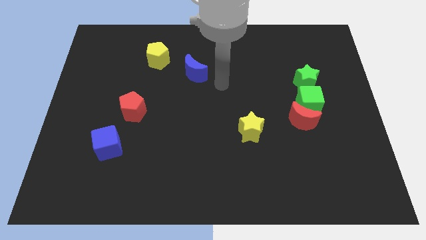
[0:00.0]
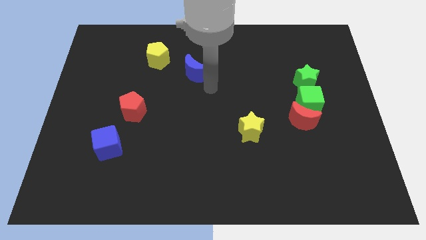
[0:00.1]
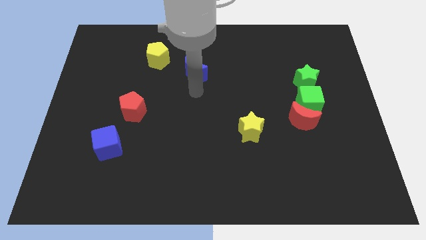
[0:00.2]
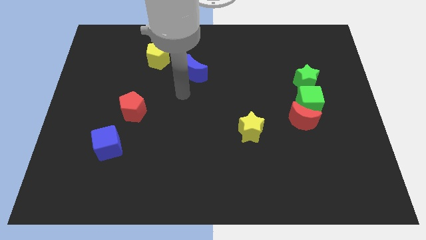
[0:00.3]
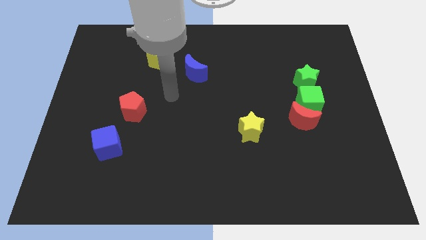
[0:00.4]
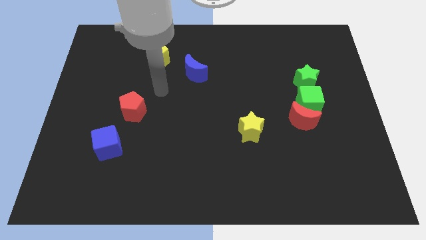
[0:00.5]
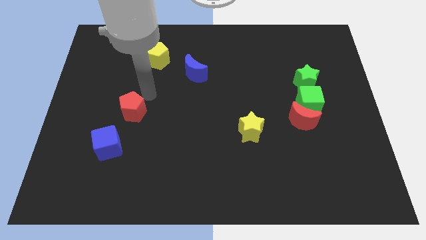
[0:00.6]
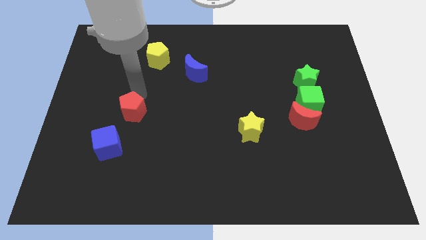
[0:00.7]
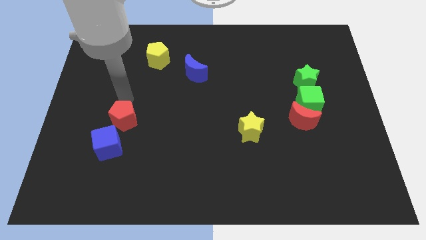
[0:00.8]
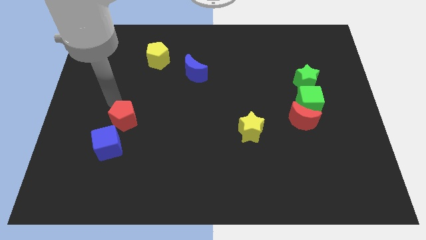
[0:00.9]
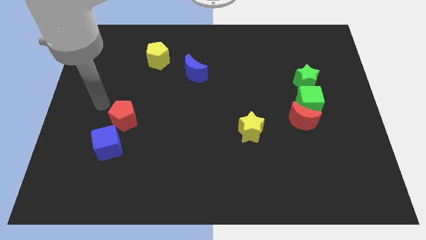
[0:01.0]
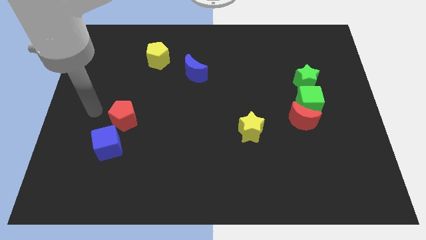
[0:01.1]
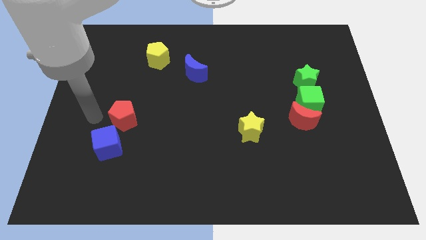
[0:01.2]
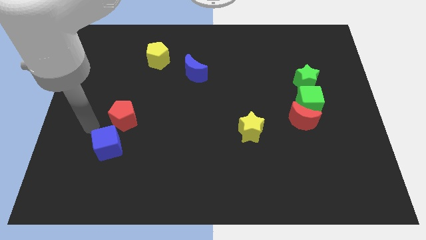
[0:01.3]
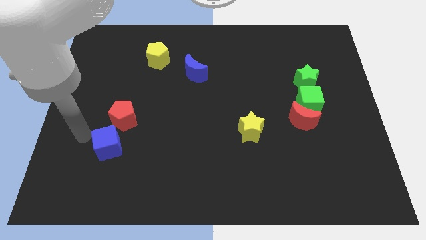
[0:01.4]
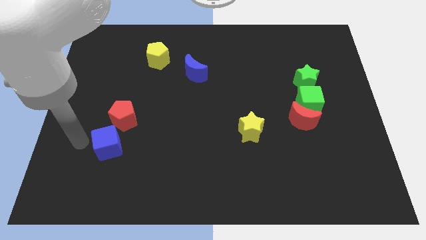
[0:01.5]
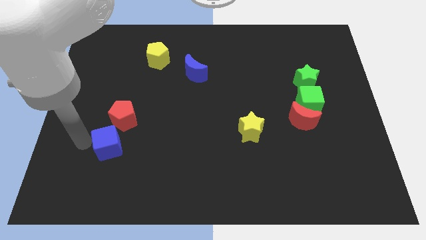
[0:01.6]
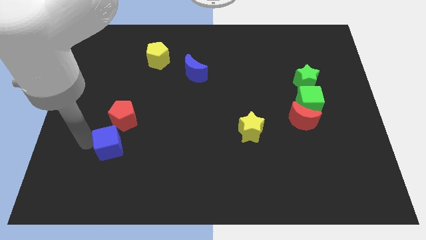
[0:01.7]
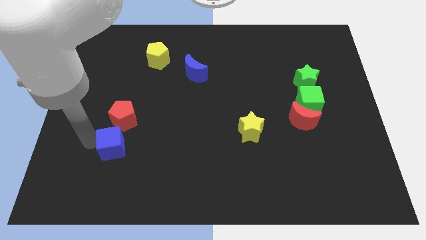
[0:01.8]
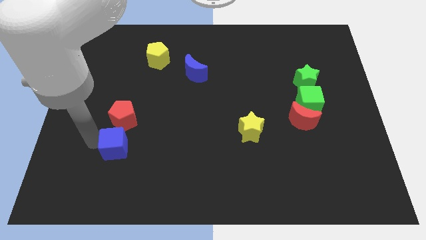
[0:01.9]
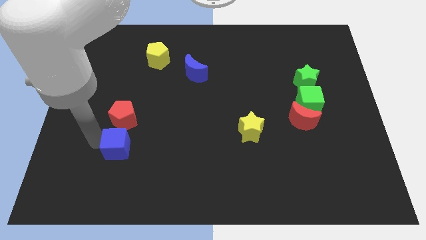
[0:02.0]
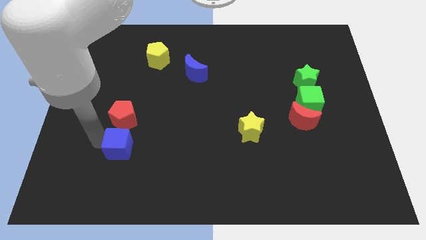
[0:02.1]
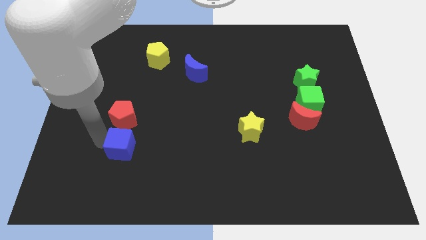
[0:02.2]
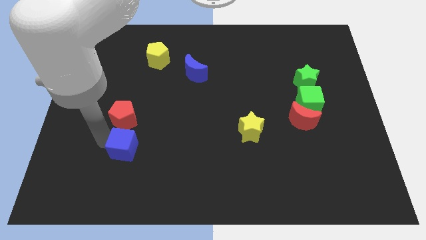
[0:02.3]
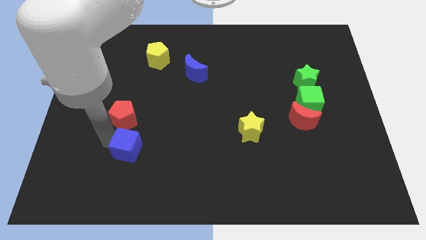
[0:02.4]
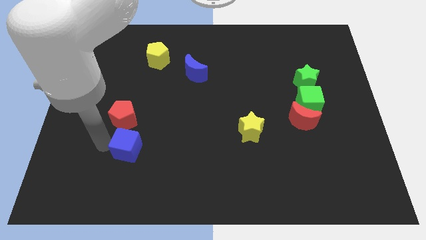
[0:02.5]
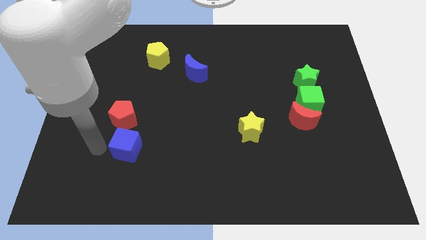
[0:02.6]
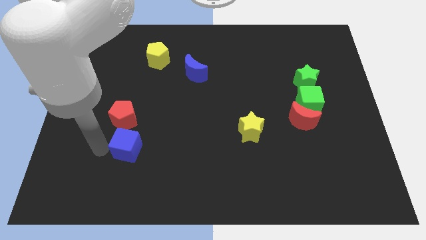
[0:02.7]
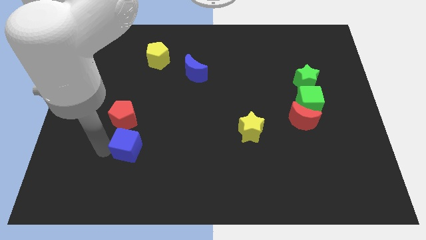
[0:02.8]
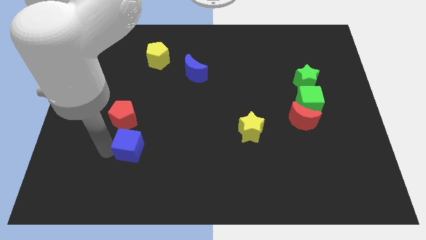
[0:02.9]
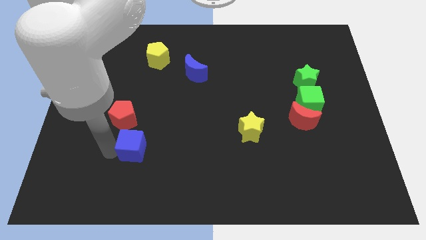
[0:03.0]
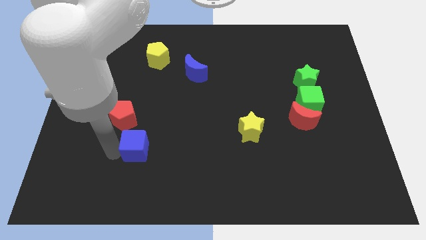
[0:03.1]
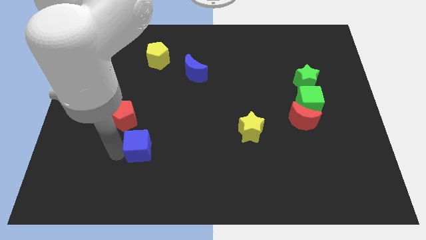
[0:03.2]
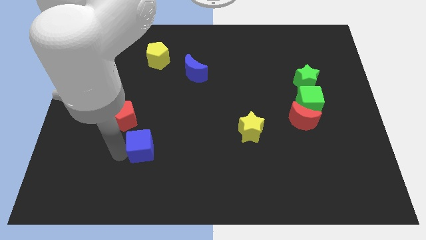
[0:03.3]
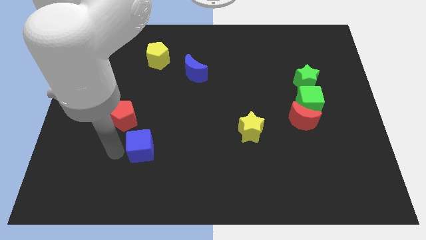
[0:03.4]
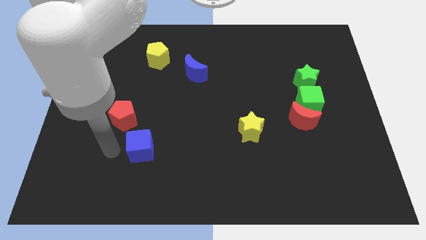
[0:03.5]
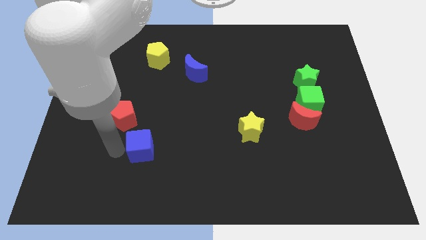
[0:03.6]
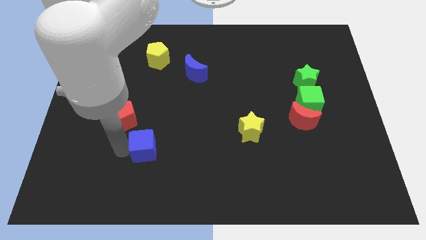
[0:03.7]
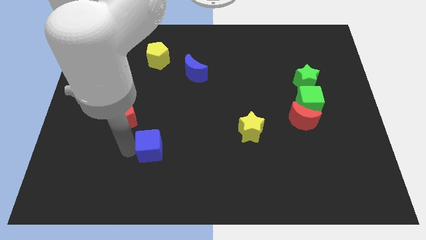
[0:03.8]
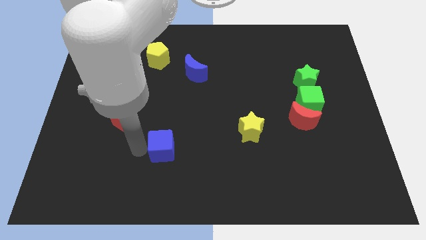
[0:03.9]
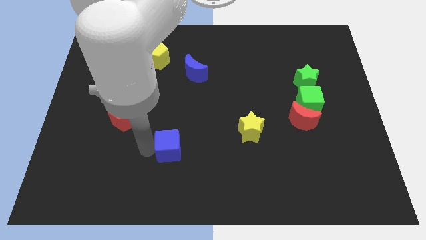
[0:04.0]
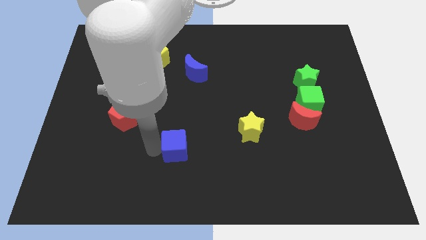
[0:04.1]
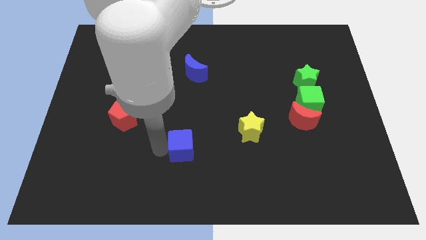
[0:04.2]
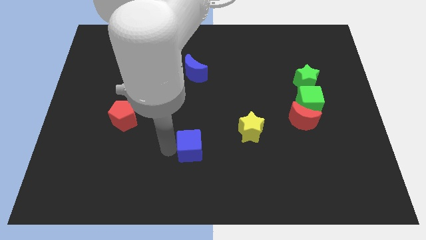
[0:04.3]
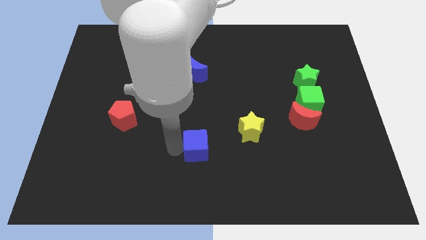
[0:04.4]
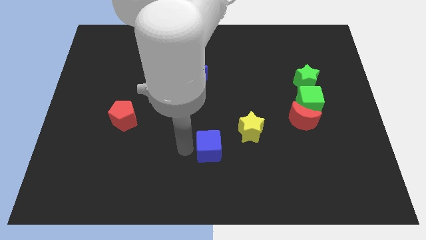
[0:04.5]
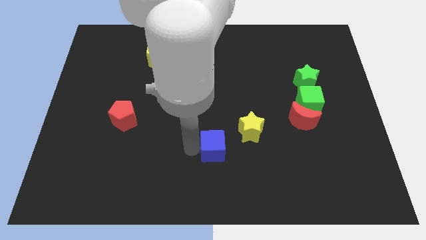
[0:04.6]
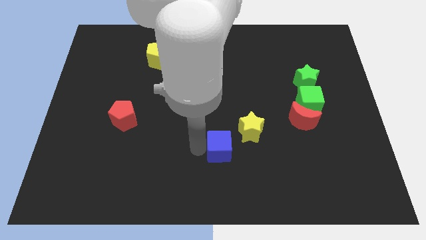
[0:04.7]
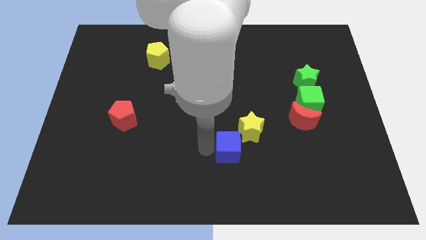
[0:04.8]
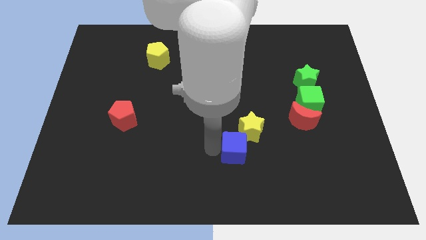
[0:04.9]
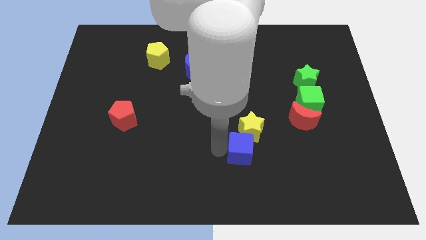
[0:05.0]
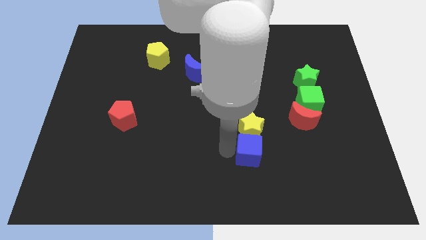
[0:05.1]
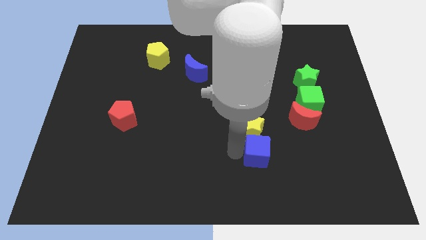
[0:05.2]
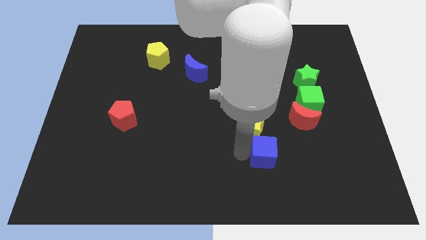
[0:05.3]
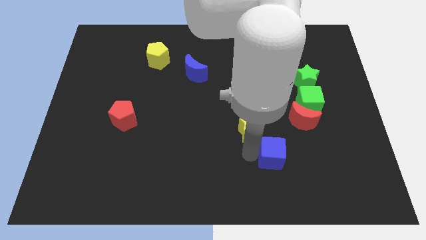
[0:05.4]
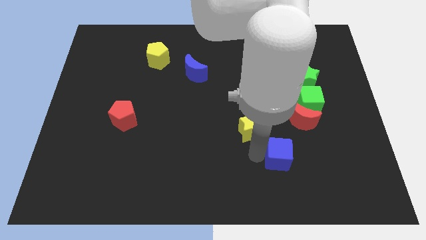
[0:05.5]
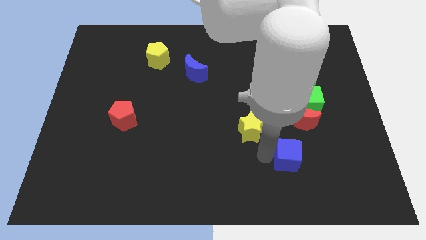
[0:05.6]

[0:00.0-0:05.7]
slide the blue cube below the red moon
